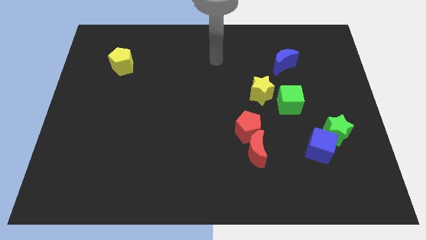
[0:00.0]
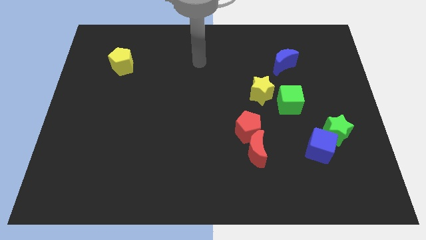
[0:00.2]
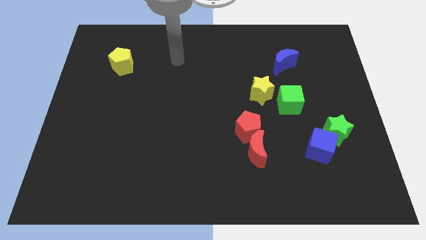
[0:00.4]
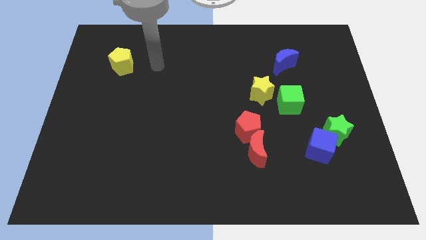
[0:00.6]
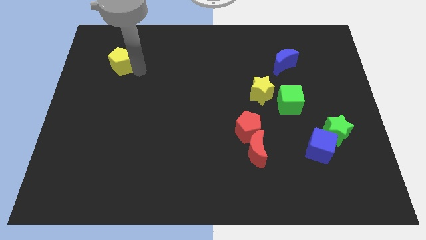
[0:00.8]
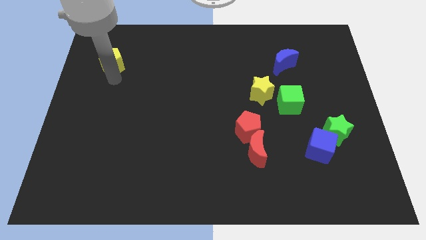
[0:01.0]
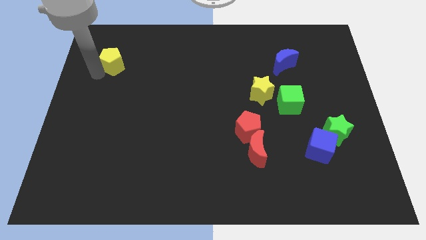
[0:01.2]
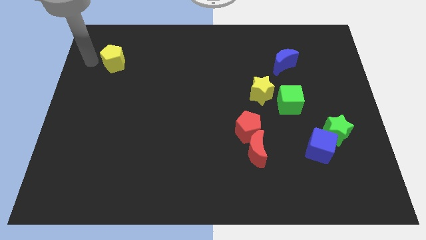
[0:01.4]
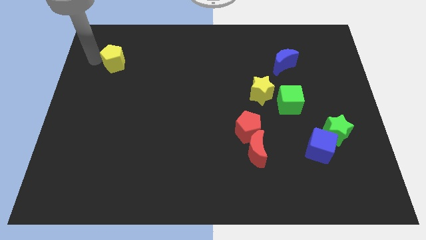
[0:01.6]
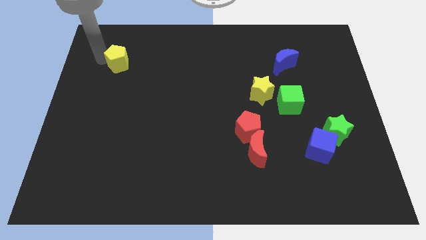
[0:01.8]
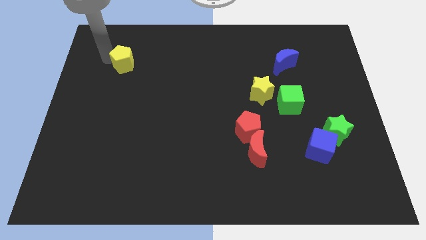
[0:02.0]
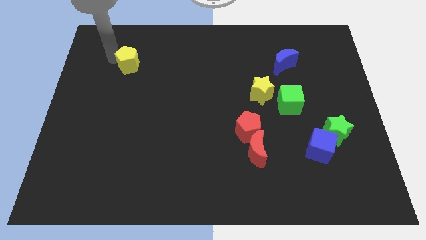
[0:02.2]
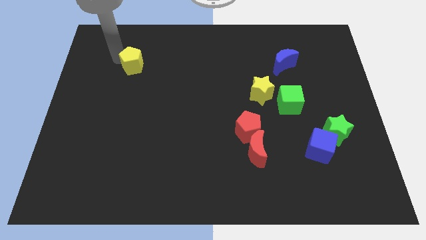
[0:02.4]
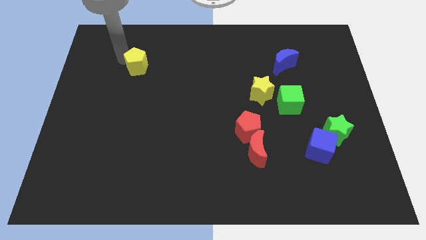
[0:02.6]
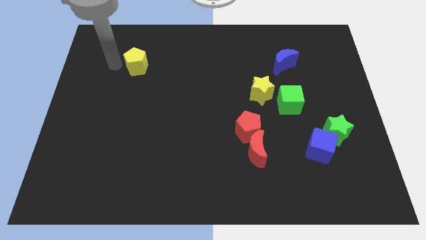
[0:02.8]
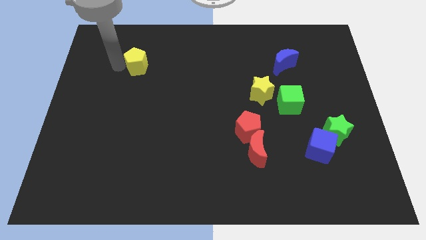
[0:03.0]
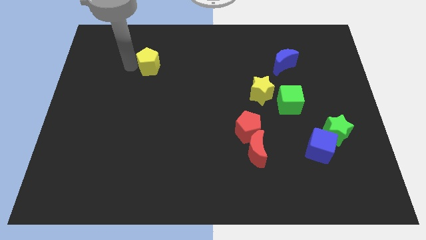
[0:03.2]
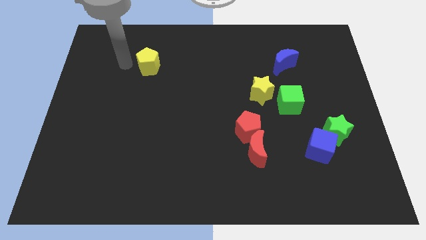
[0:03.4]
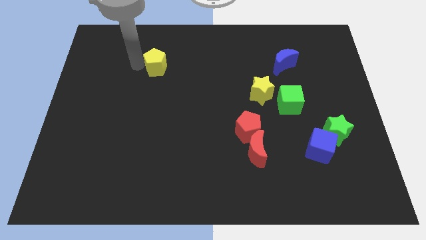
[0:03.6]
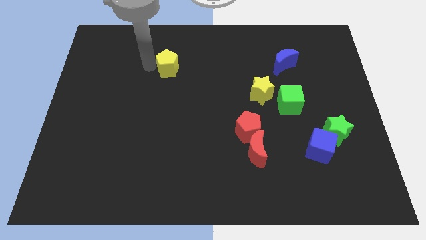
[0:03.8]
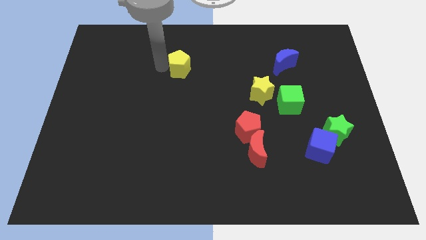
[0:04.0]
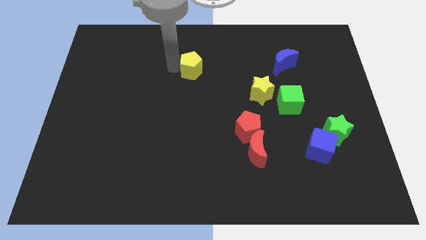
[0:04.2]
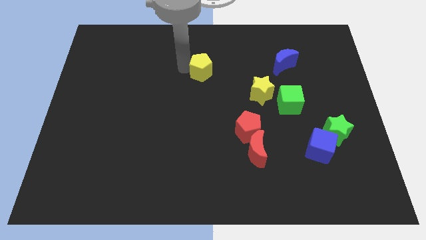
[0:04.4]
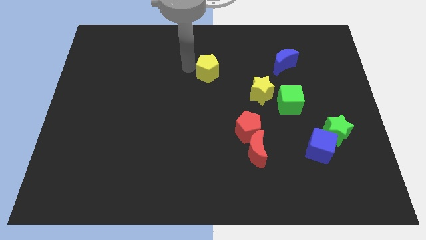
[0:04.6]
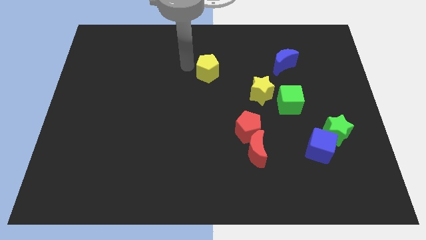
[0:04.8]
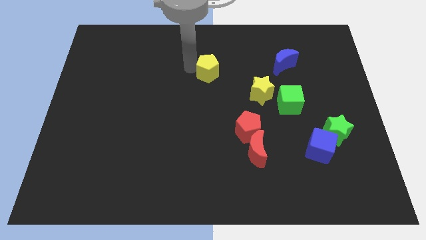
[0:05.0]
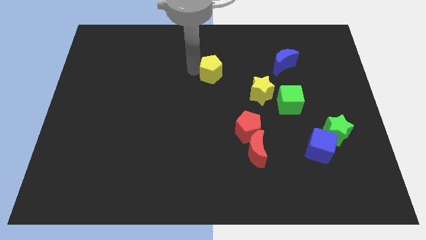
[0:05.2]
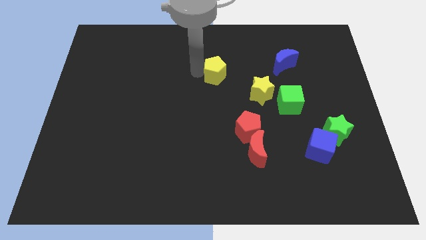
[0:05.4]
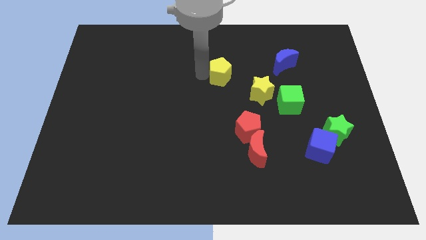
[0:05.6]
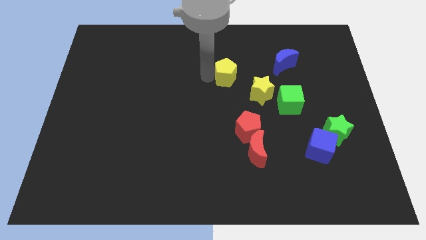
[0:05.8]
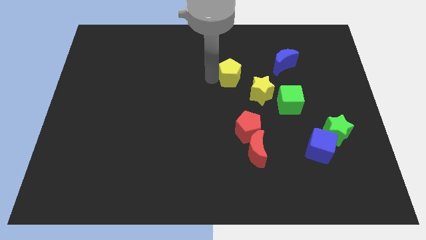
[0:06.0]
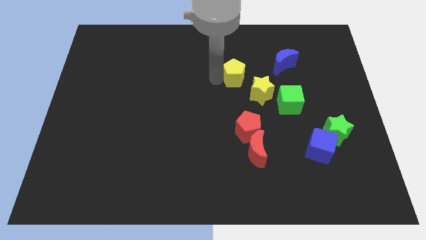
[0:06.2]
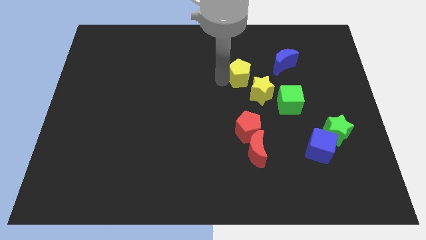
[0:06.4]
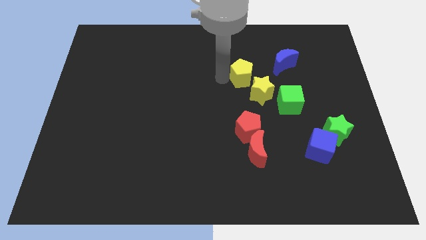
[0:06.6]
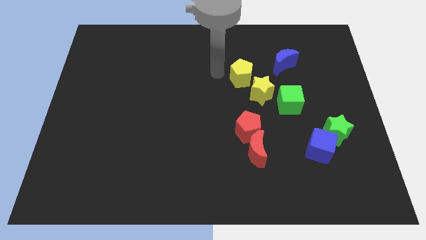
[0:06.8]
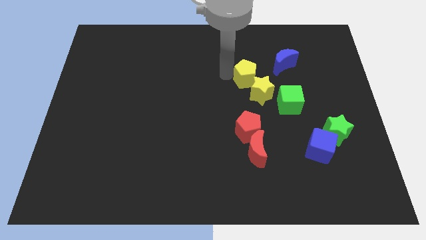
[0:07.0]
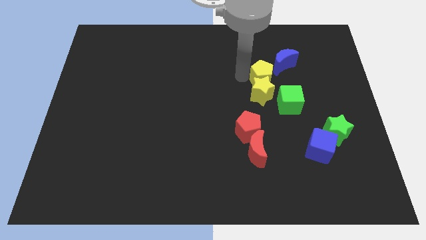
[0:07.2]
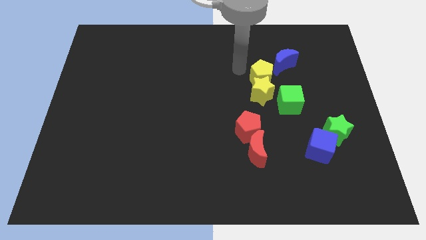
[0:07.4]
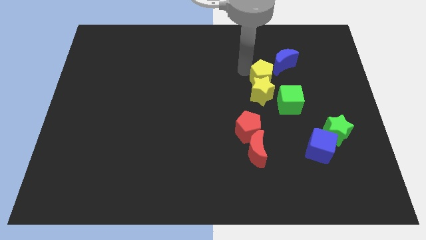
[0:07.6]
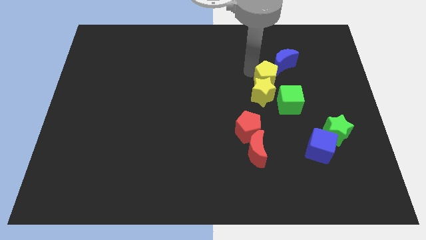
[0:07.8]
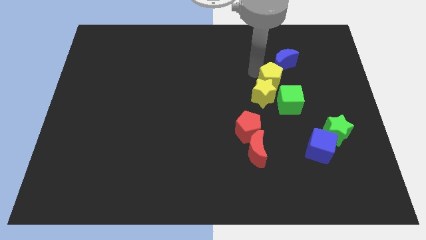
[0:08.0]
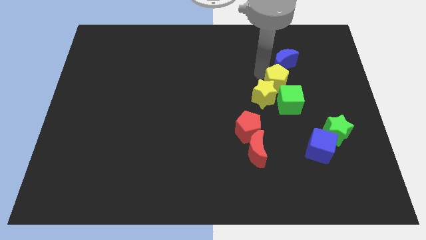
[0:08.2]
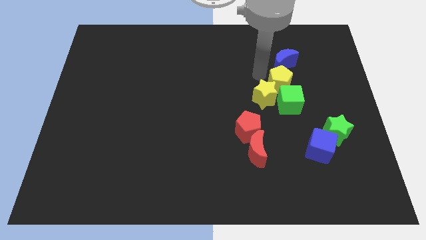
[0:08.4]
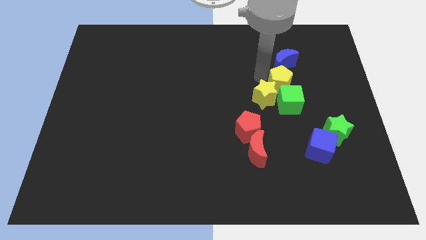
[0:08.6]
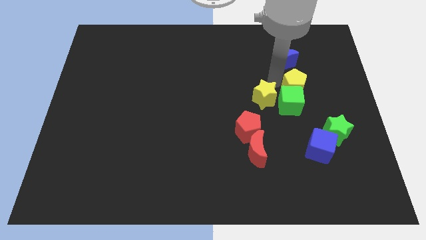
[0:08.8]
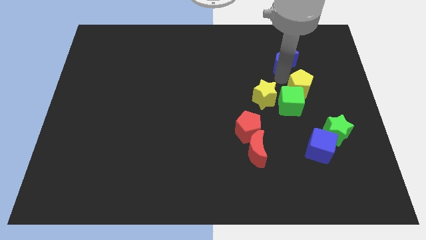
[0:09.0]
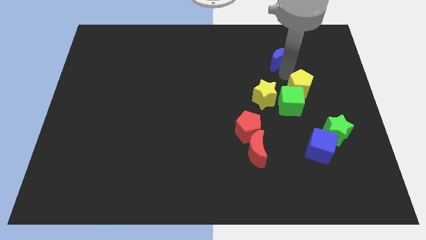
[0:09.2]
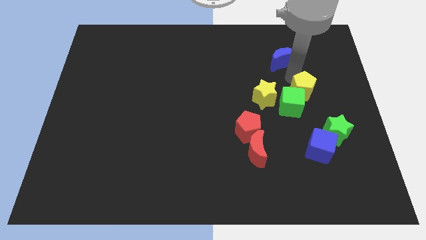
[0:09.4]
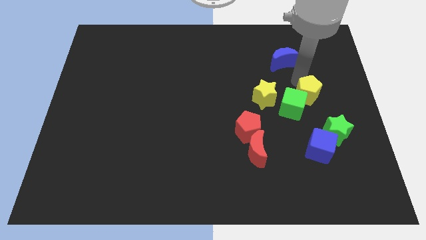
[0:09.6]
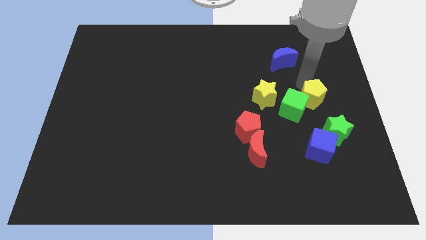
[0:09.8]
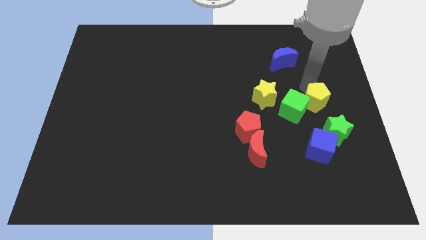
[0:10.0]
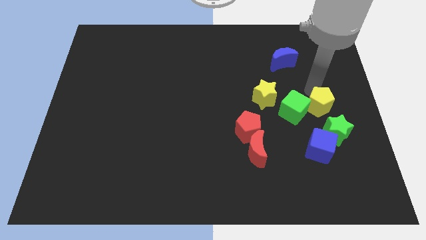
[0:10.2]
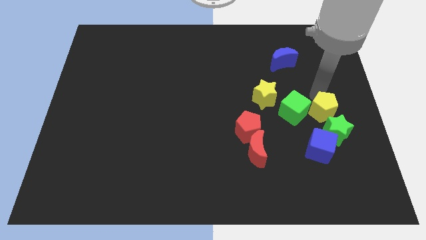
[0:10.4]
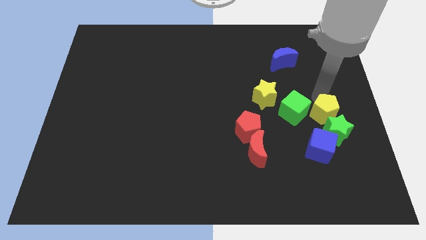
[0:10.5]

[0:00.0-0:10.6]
push the yellow pentagon next to the green star

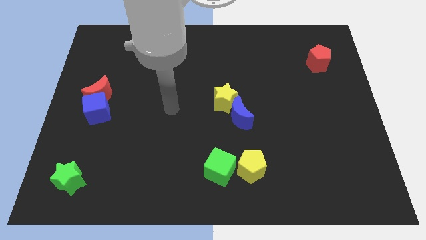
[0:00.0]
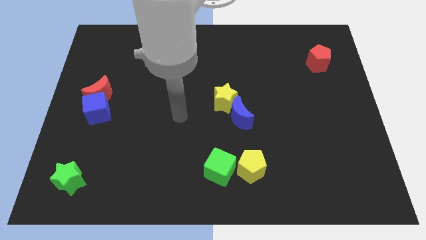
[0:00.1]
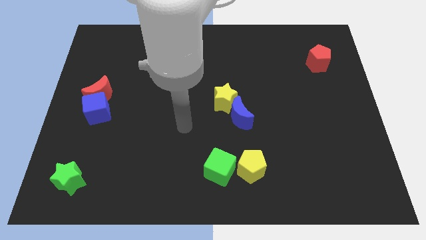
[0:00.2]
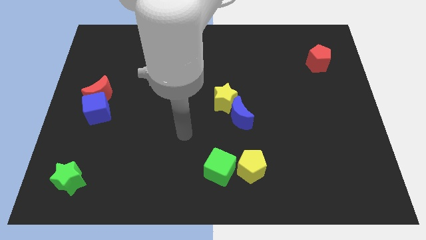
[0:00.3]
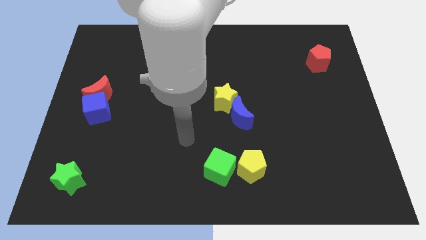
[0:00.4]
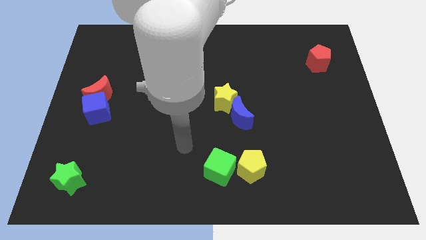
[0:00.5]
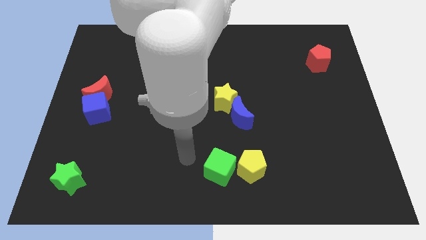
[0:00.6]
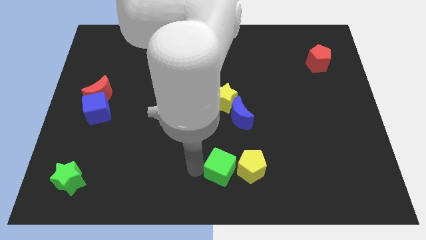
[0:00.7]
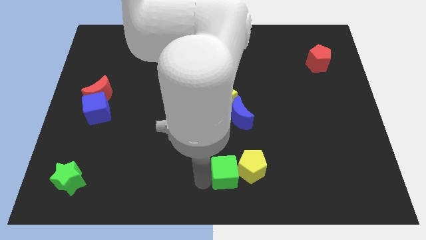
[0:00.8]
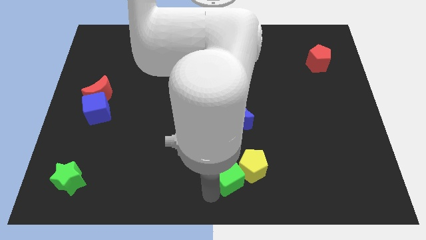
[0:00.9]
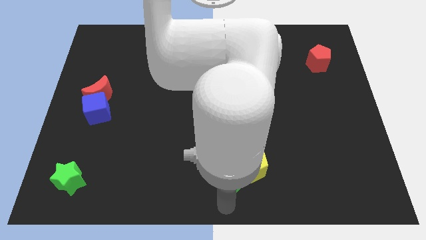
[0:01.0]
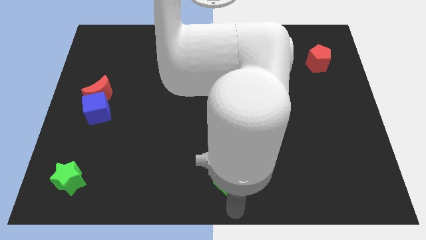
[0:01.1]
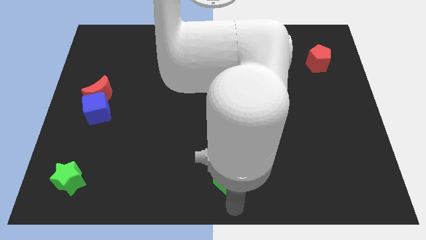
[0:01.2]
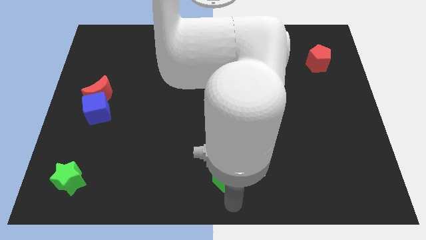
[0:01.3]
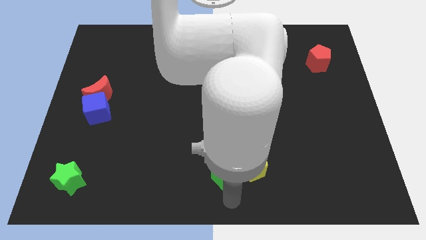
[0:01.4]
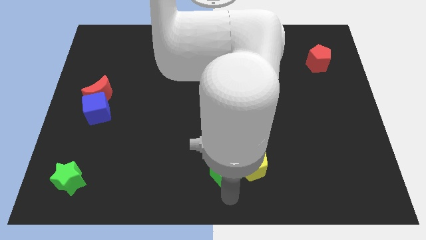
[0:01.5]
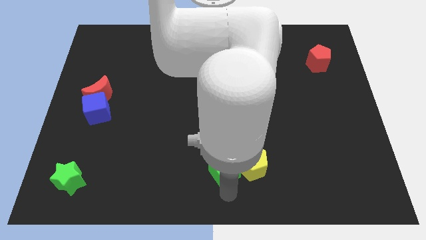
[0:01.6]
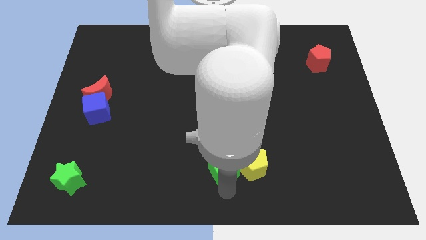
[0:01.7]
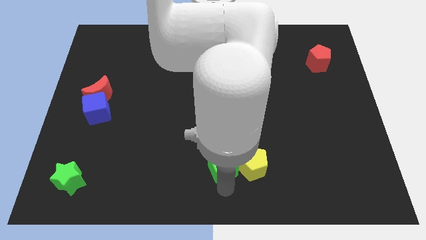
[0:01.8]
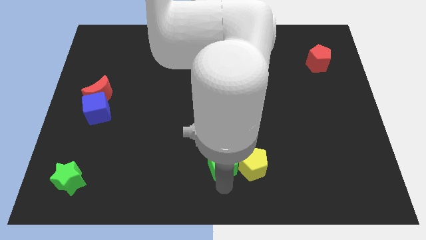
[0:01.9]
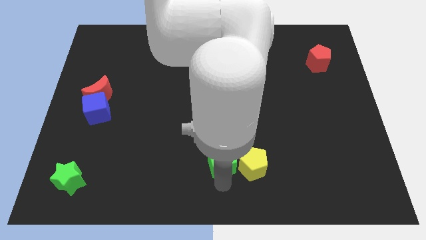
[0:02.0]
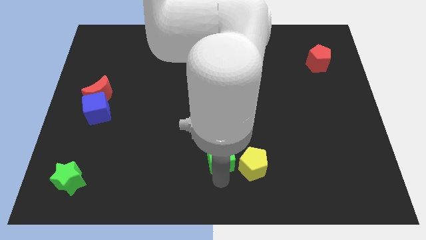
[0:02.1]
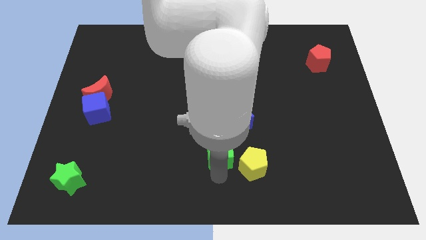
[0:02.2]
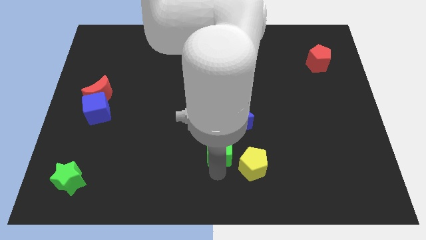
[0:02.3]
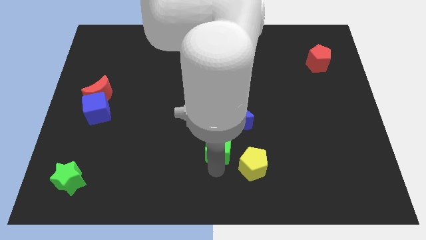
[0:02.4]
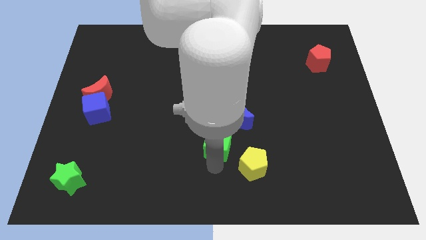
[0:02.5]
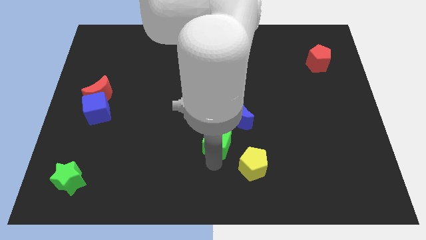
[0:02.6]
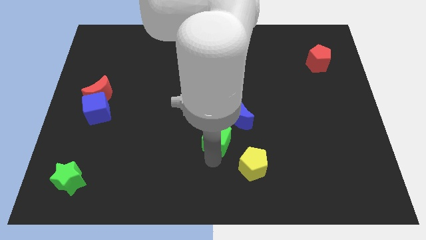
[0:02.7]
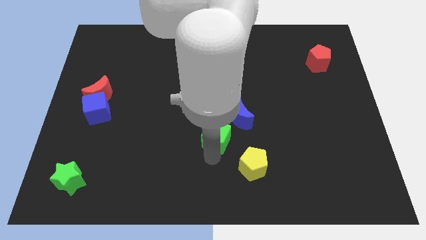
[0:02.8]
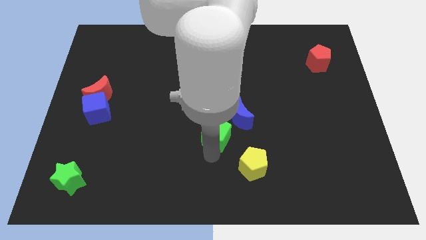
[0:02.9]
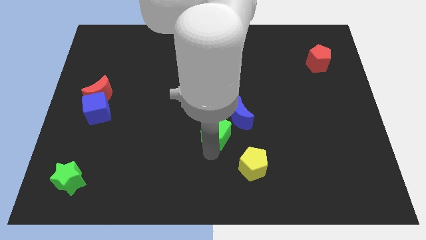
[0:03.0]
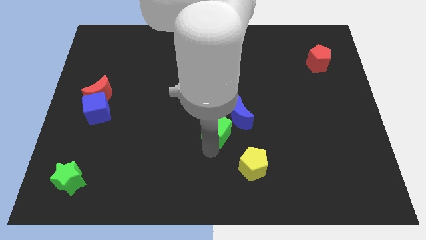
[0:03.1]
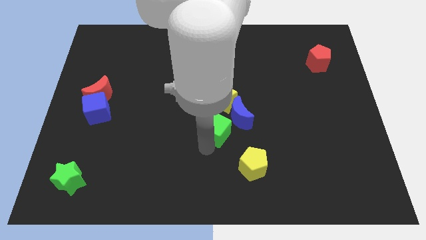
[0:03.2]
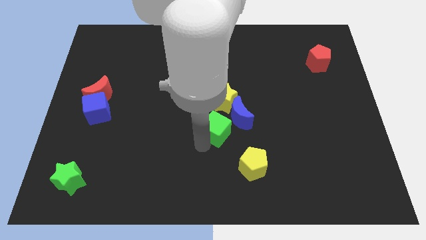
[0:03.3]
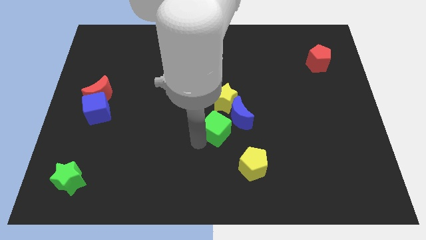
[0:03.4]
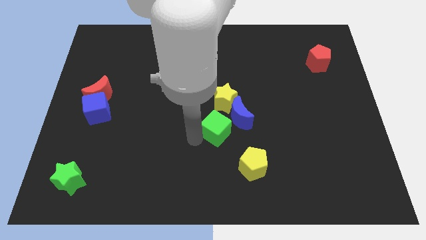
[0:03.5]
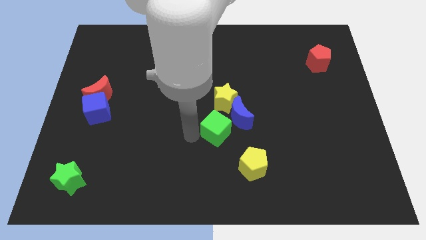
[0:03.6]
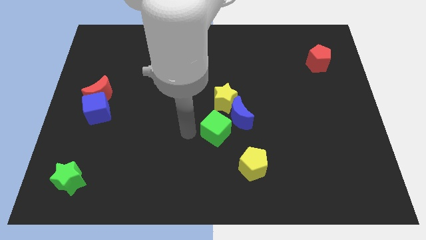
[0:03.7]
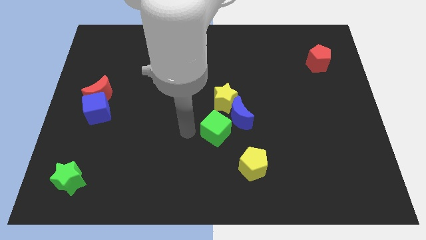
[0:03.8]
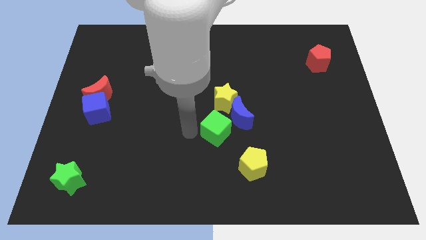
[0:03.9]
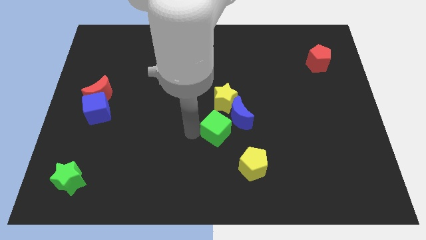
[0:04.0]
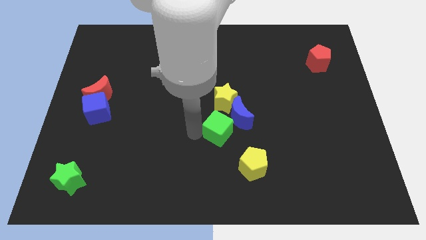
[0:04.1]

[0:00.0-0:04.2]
slide the green cube next to the blue moon
